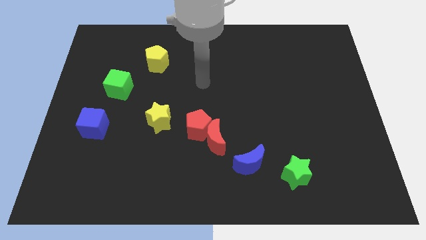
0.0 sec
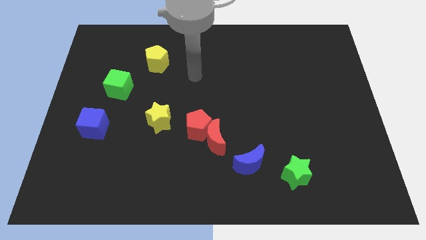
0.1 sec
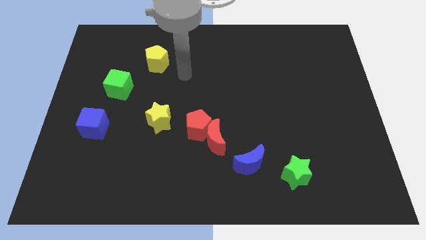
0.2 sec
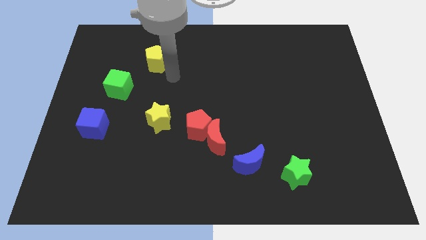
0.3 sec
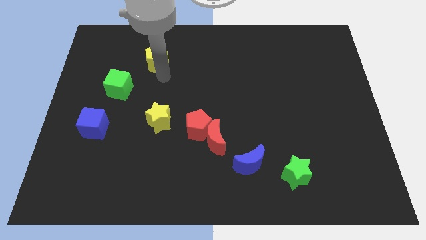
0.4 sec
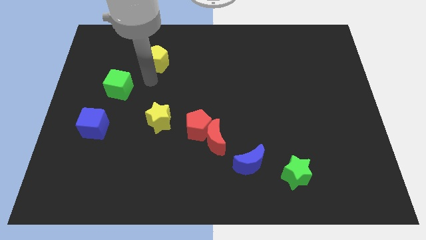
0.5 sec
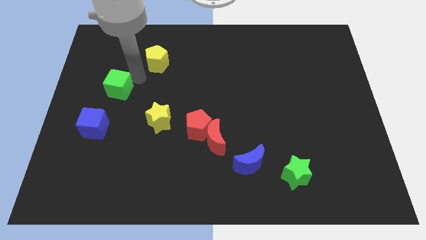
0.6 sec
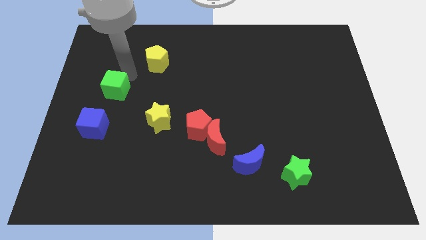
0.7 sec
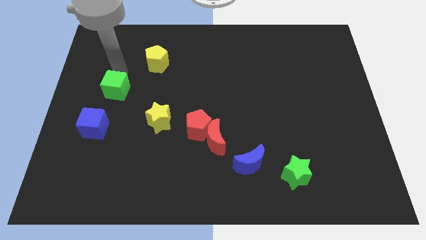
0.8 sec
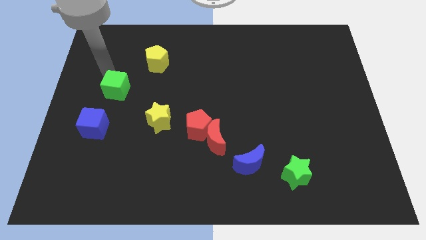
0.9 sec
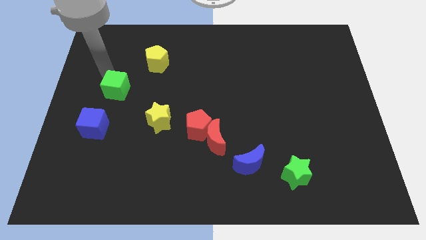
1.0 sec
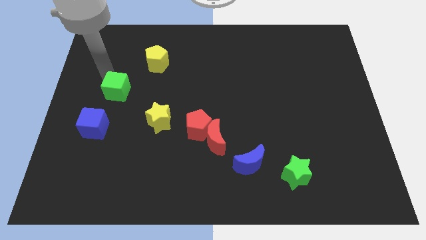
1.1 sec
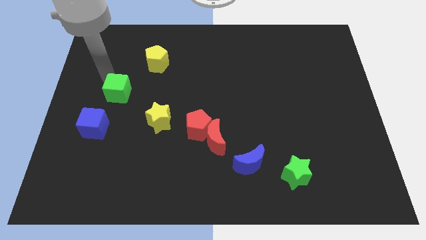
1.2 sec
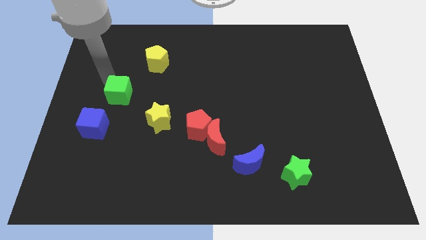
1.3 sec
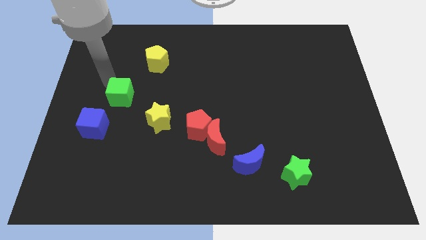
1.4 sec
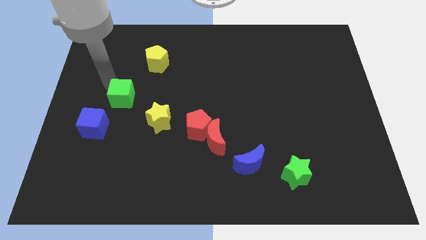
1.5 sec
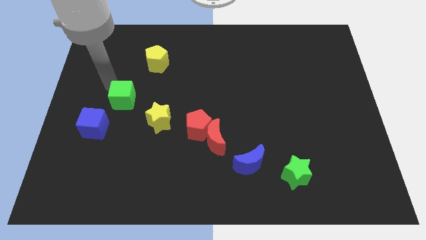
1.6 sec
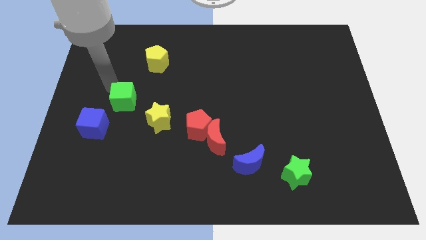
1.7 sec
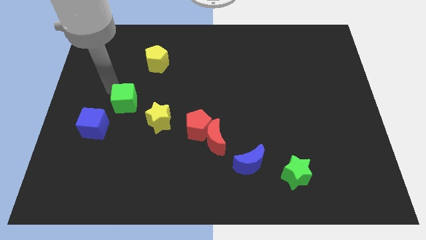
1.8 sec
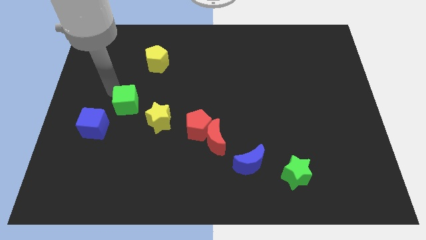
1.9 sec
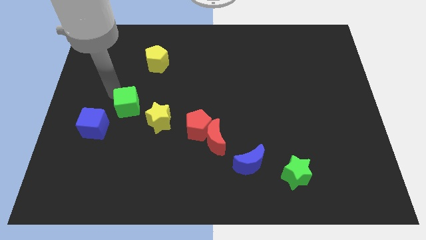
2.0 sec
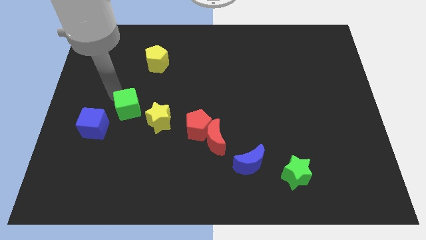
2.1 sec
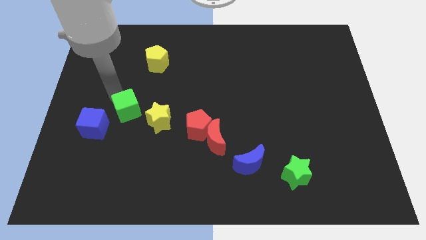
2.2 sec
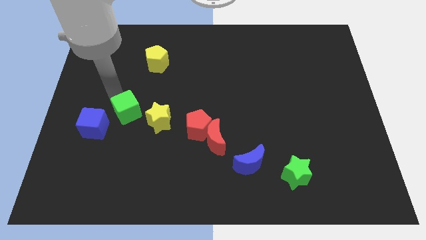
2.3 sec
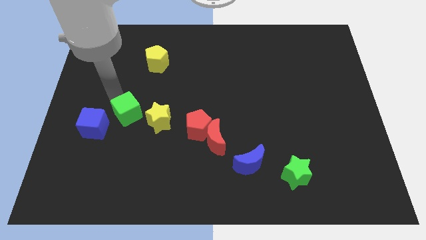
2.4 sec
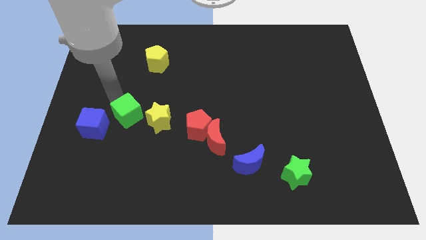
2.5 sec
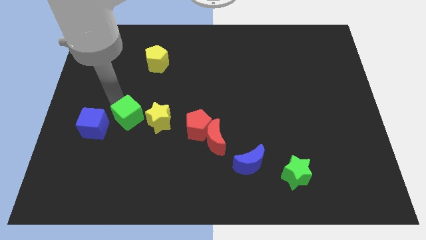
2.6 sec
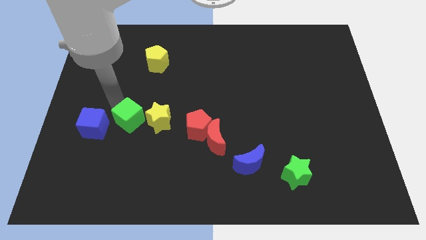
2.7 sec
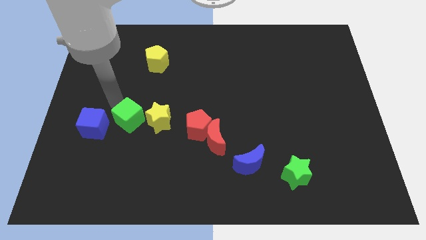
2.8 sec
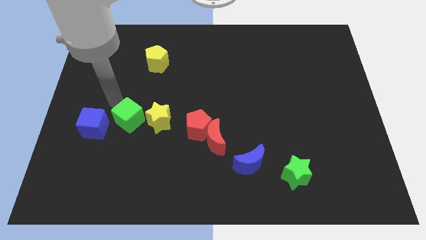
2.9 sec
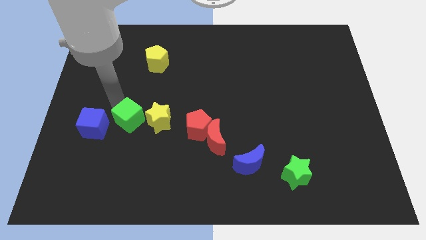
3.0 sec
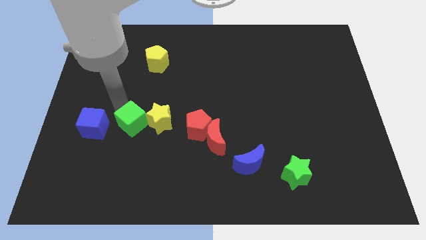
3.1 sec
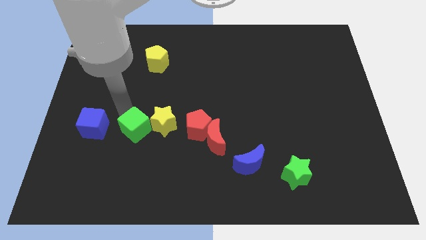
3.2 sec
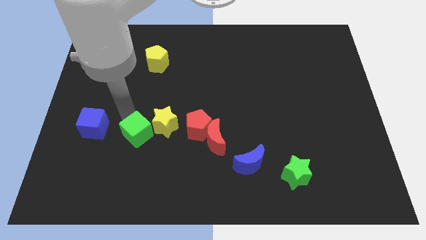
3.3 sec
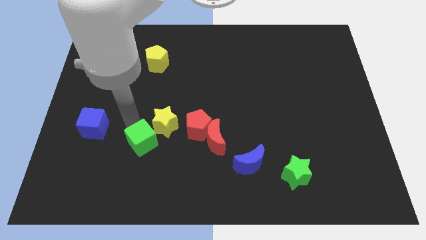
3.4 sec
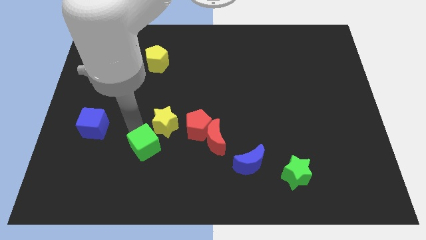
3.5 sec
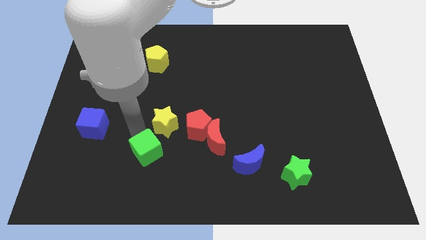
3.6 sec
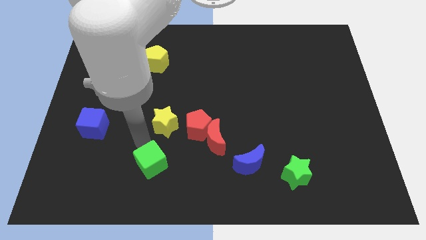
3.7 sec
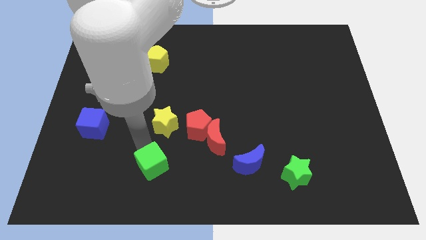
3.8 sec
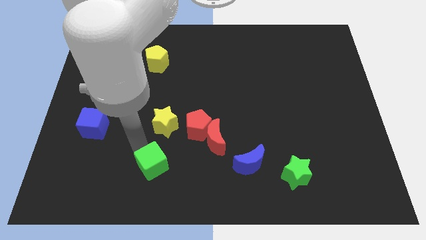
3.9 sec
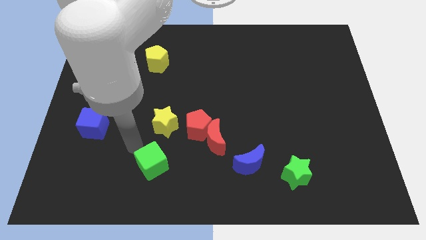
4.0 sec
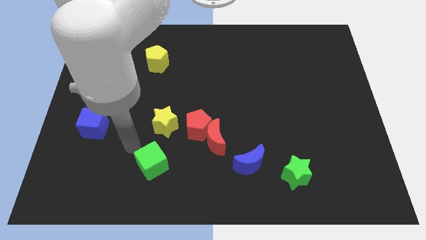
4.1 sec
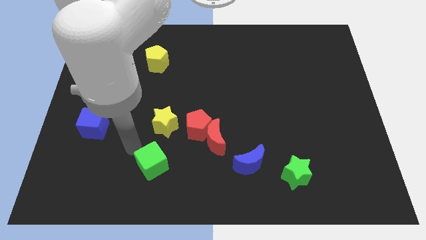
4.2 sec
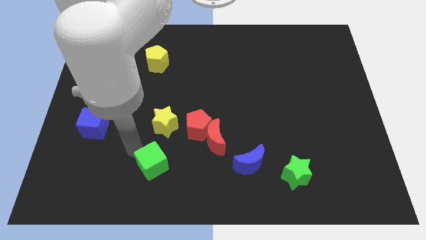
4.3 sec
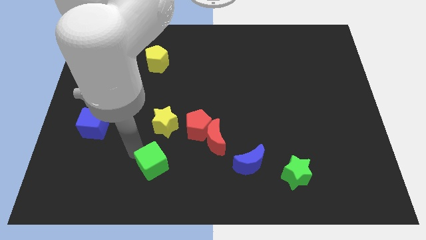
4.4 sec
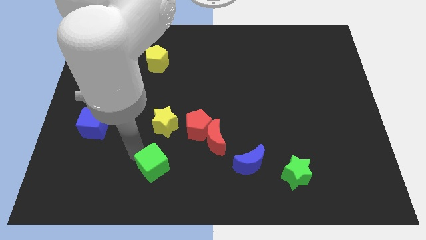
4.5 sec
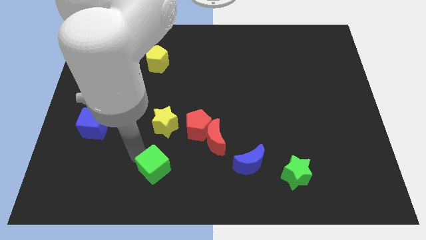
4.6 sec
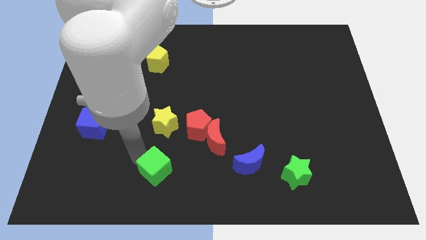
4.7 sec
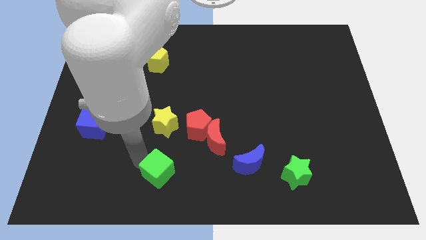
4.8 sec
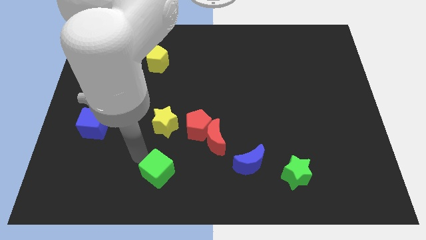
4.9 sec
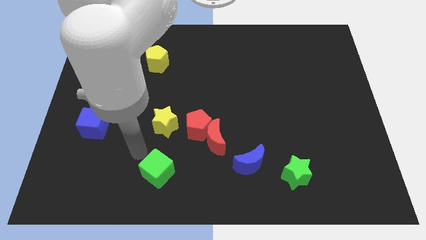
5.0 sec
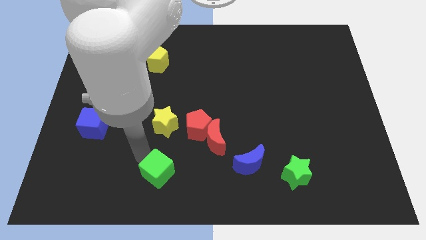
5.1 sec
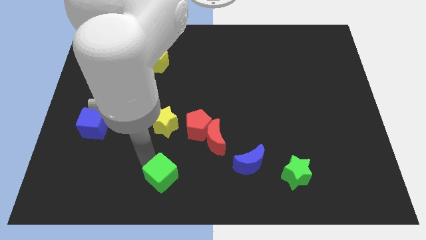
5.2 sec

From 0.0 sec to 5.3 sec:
slide the green cube to the bottom

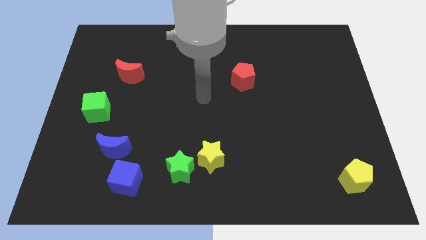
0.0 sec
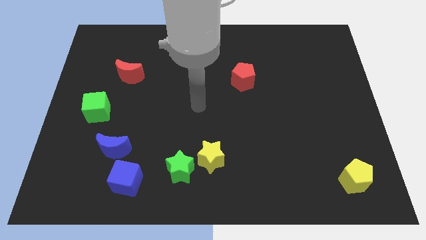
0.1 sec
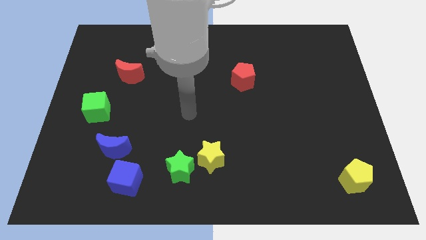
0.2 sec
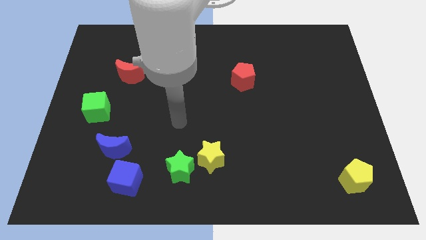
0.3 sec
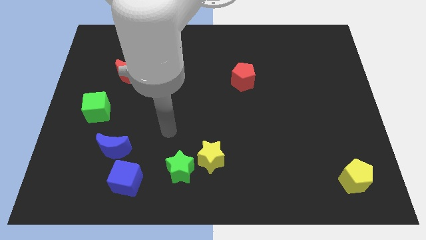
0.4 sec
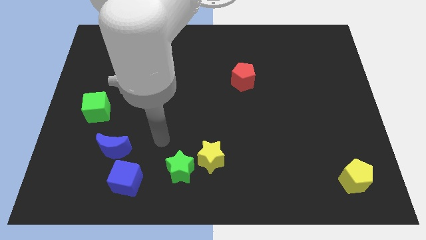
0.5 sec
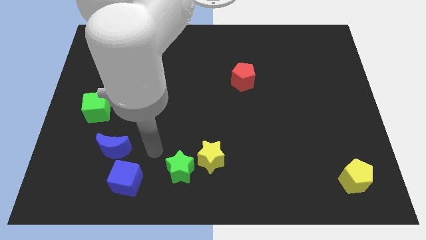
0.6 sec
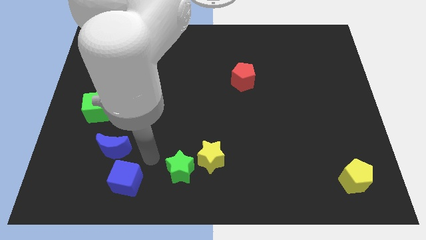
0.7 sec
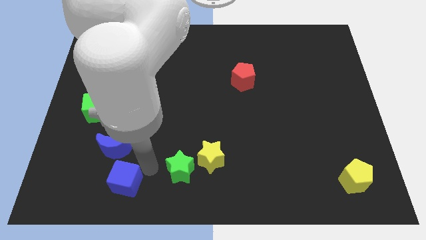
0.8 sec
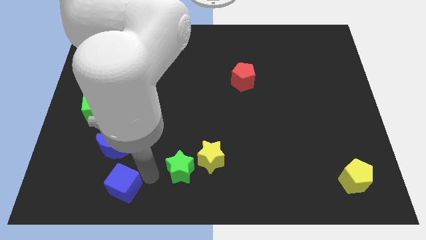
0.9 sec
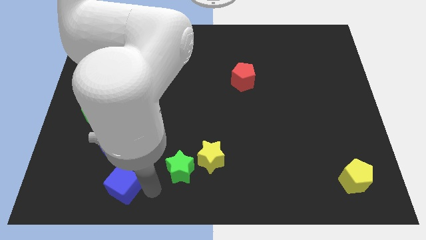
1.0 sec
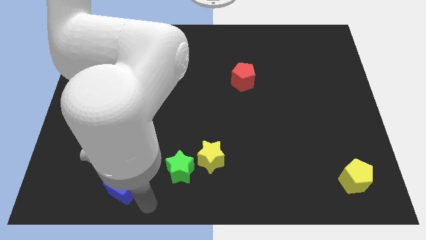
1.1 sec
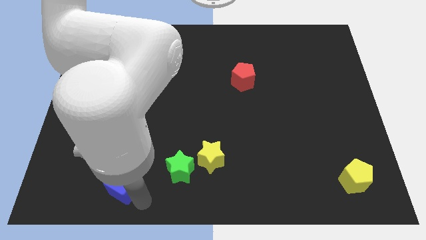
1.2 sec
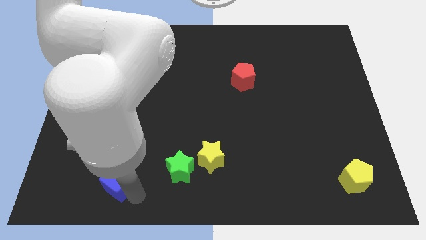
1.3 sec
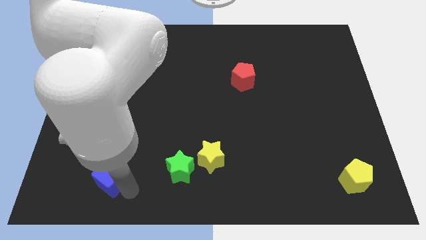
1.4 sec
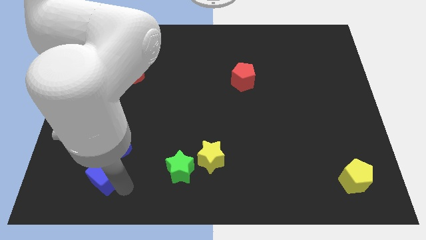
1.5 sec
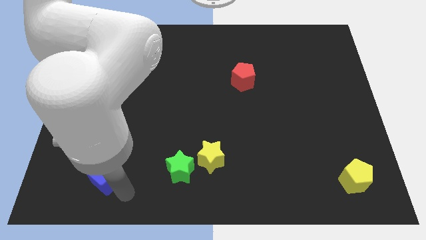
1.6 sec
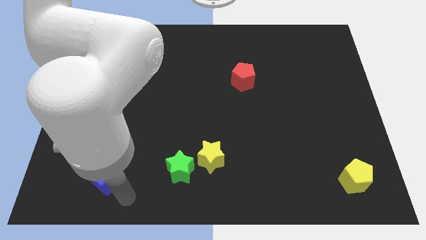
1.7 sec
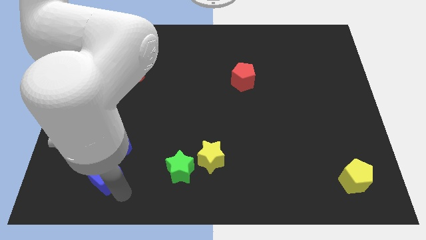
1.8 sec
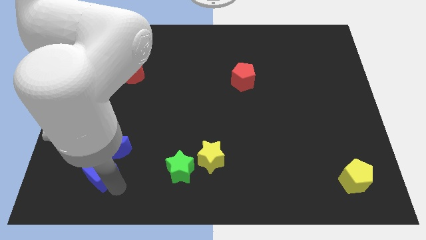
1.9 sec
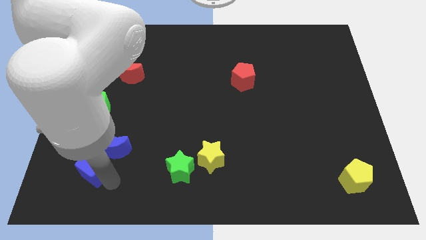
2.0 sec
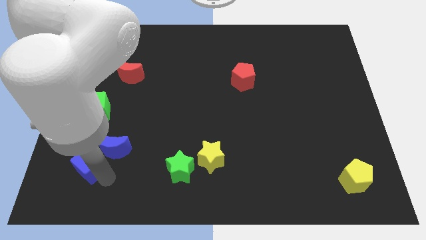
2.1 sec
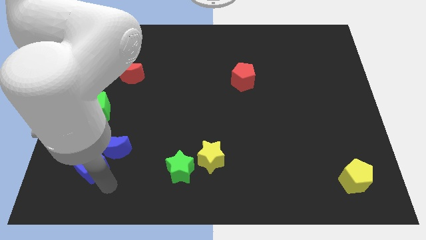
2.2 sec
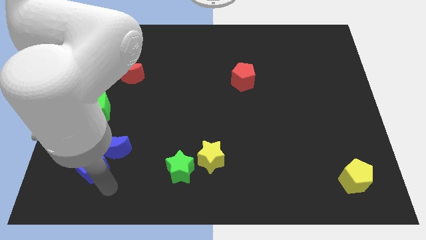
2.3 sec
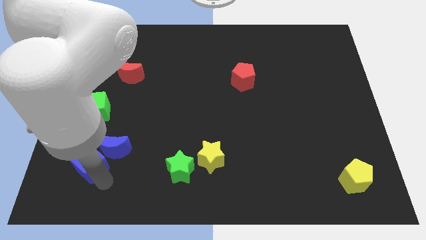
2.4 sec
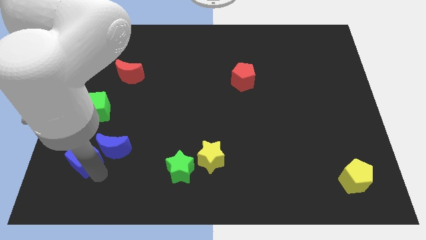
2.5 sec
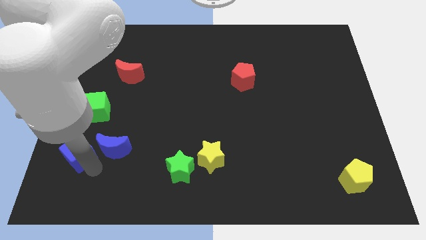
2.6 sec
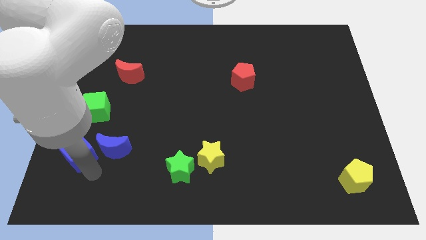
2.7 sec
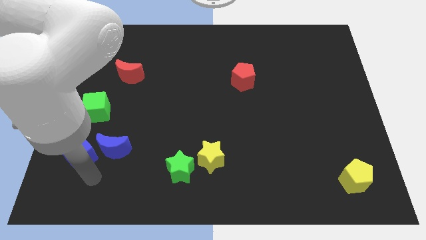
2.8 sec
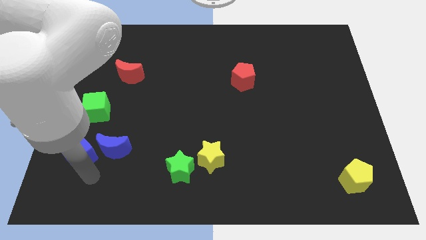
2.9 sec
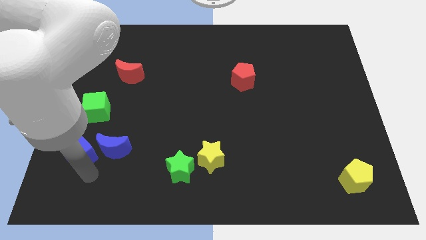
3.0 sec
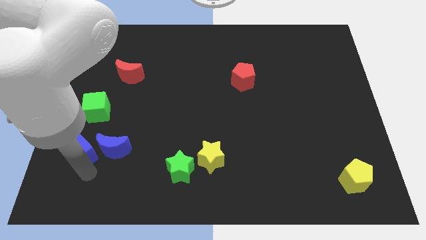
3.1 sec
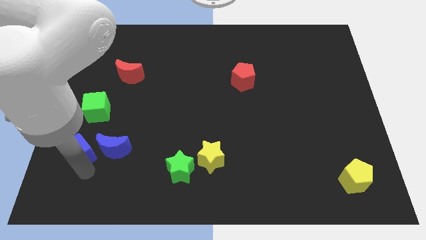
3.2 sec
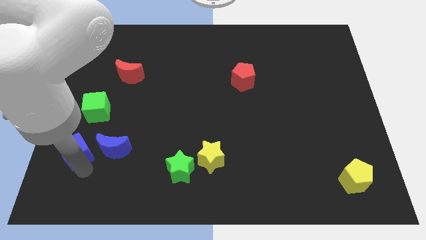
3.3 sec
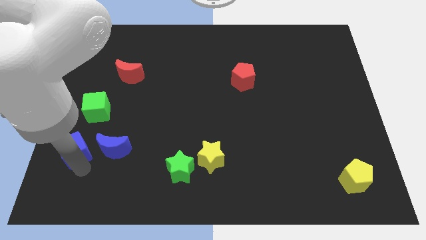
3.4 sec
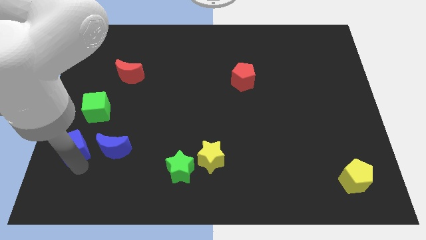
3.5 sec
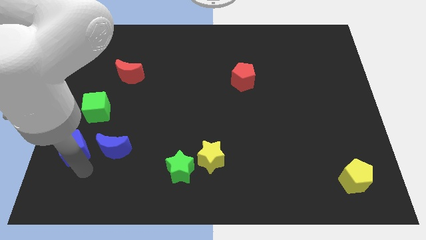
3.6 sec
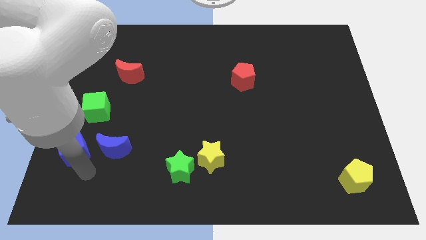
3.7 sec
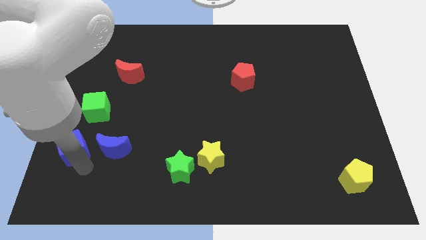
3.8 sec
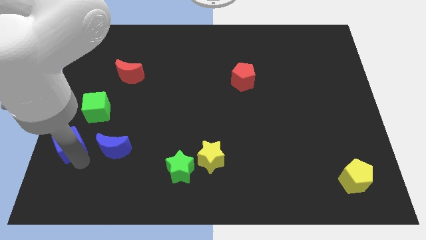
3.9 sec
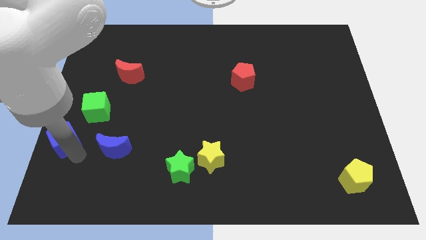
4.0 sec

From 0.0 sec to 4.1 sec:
move the blue cube to the center left
